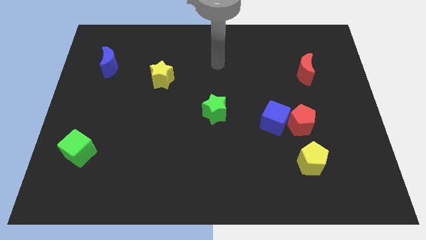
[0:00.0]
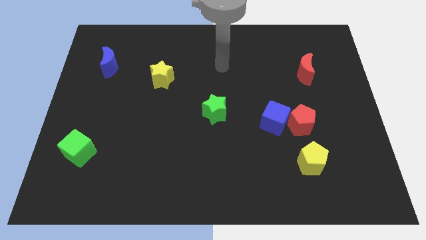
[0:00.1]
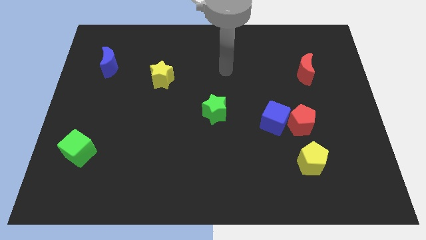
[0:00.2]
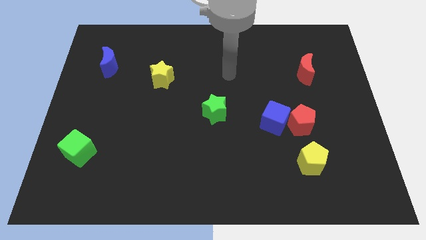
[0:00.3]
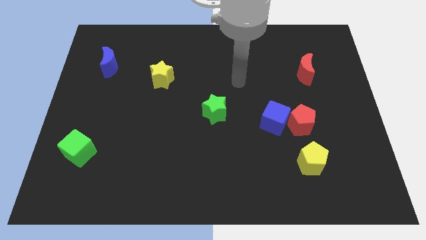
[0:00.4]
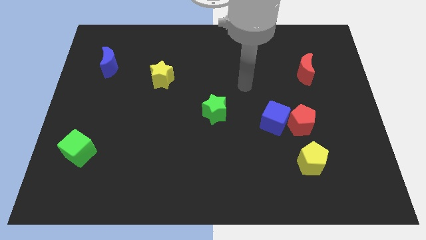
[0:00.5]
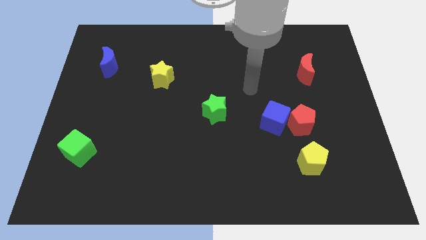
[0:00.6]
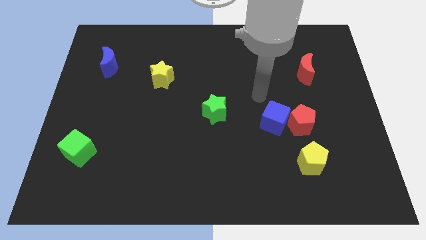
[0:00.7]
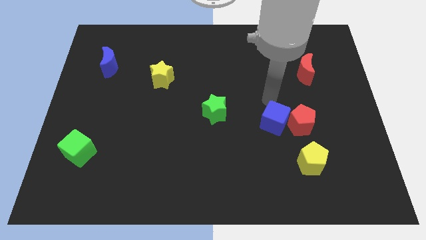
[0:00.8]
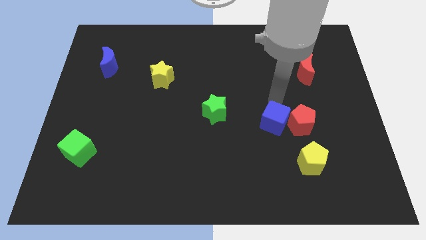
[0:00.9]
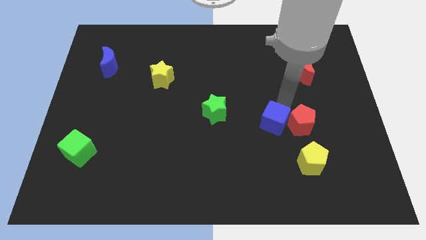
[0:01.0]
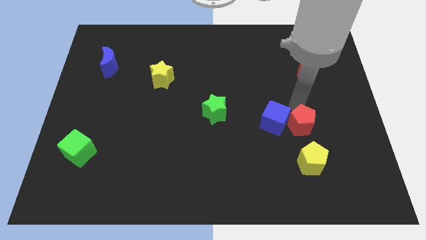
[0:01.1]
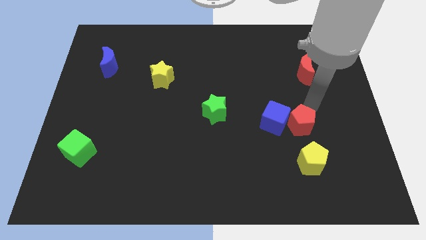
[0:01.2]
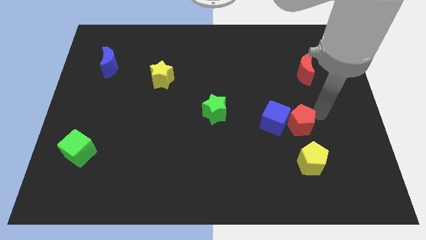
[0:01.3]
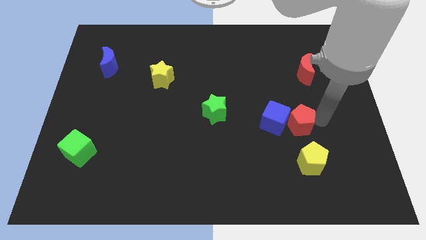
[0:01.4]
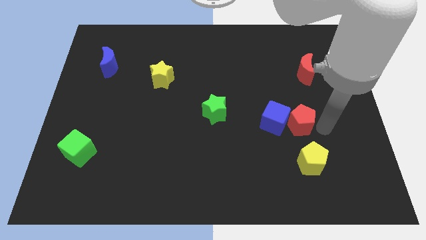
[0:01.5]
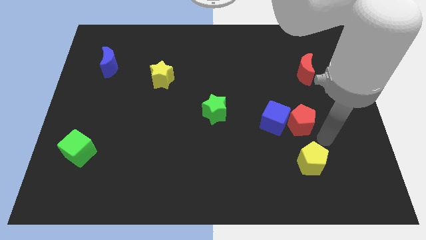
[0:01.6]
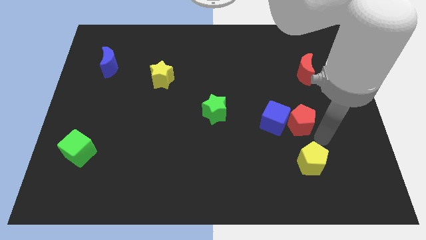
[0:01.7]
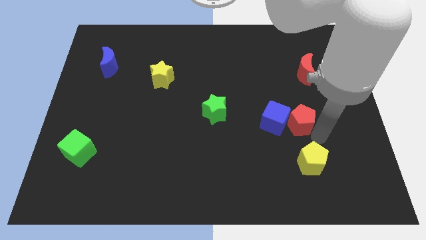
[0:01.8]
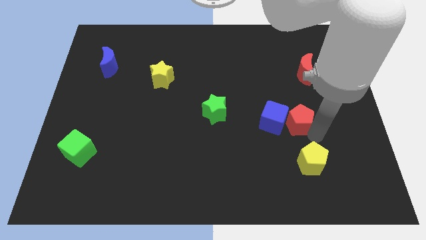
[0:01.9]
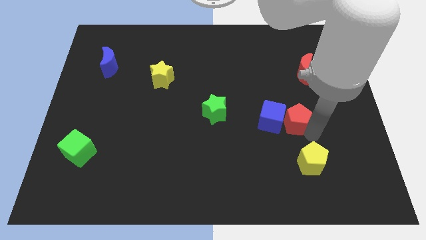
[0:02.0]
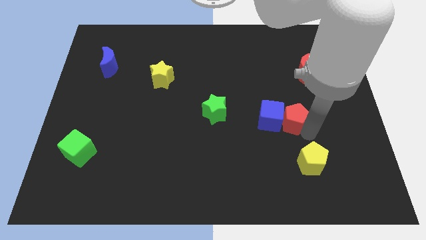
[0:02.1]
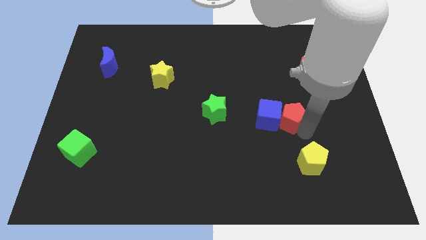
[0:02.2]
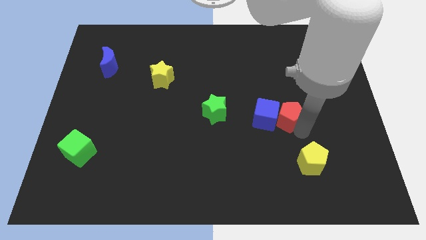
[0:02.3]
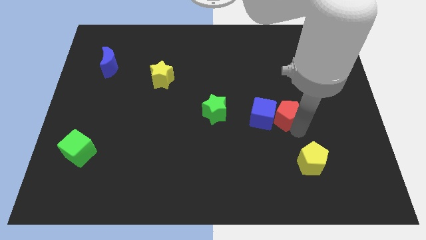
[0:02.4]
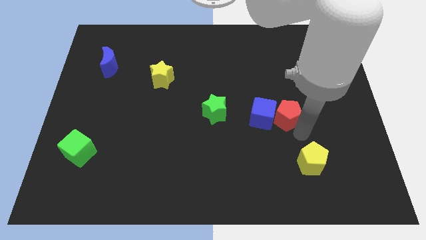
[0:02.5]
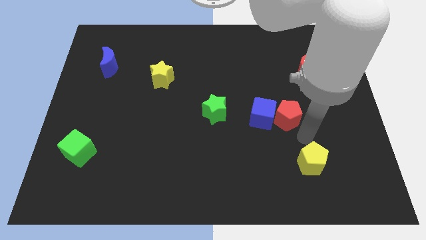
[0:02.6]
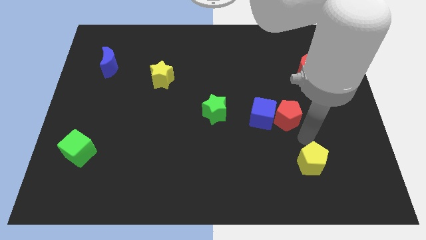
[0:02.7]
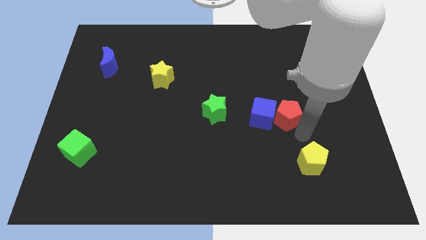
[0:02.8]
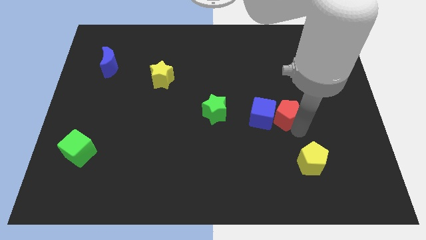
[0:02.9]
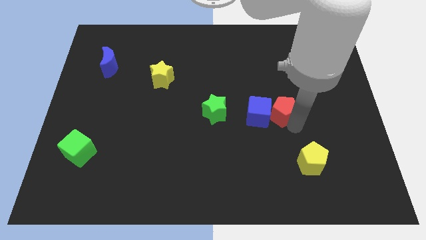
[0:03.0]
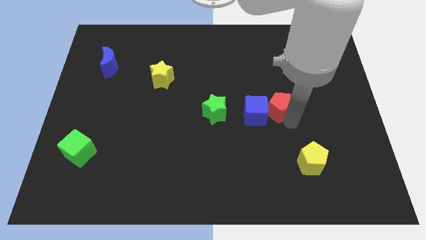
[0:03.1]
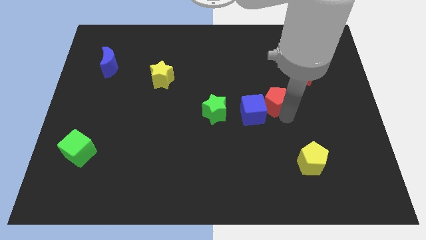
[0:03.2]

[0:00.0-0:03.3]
push the red pentagon a bit upwards and to the left diagonally

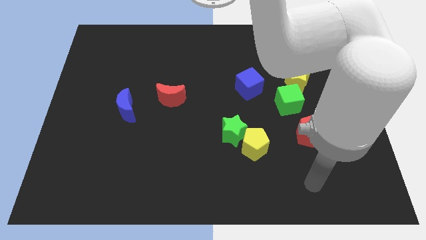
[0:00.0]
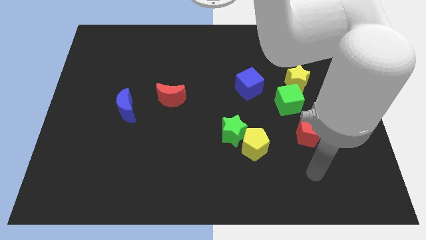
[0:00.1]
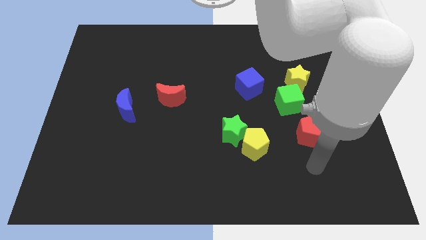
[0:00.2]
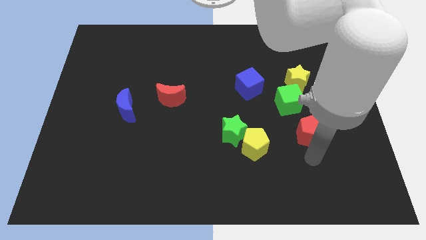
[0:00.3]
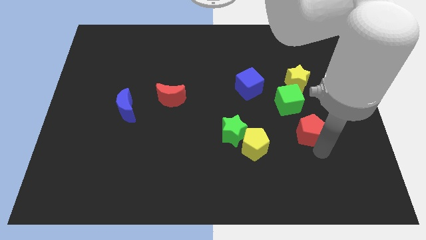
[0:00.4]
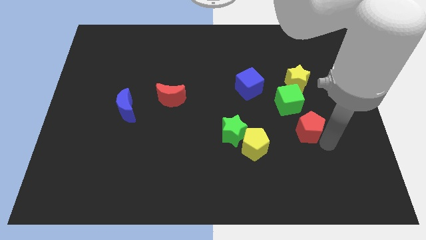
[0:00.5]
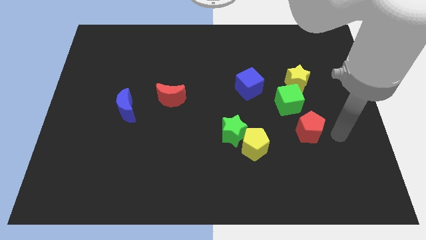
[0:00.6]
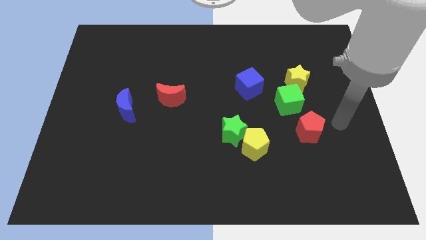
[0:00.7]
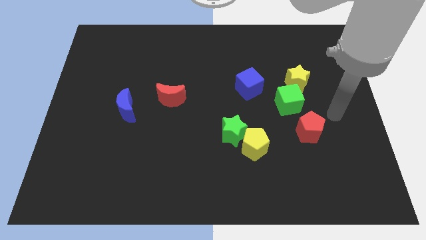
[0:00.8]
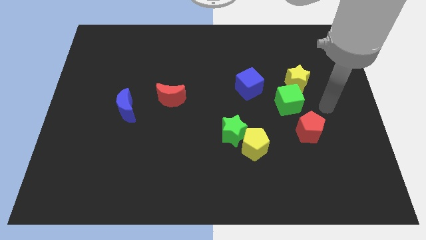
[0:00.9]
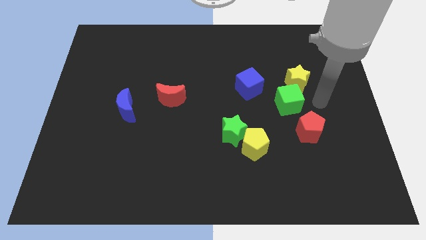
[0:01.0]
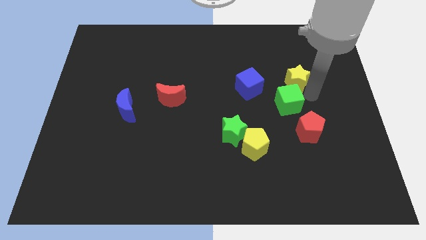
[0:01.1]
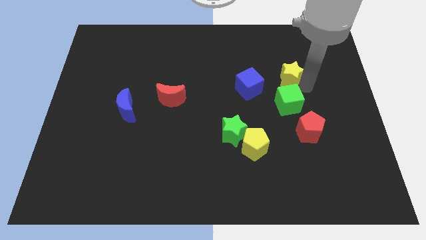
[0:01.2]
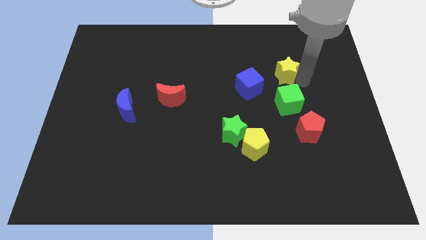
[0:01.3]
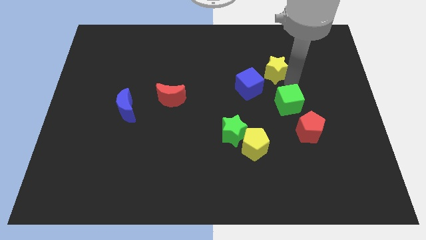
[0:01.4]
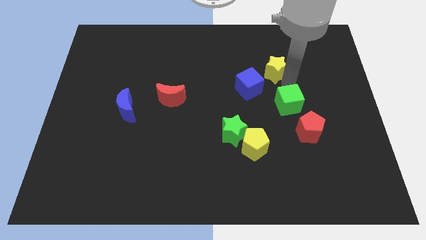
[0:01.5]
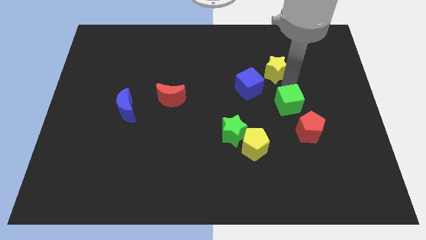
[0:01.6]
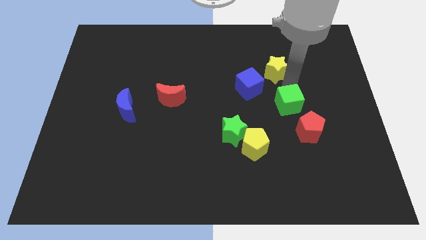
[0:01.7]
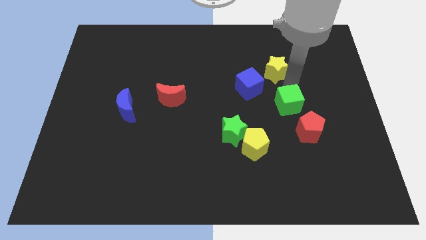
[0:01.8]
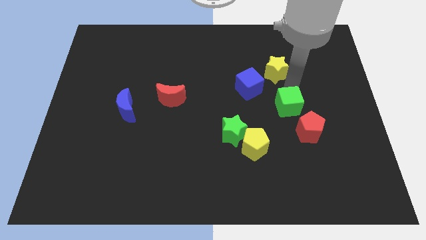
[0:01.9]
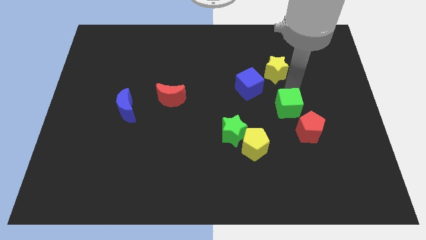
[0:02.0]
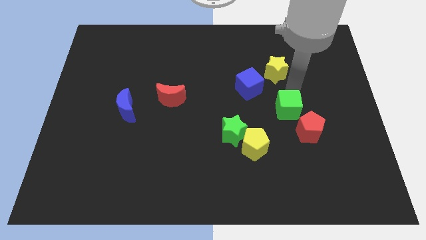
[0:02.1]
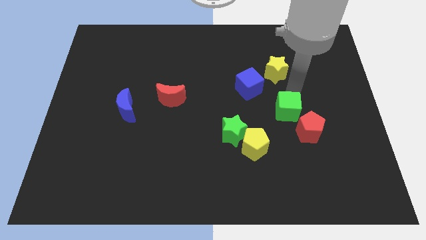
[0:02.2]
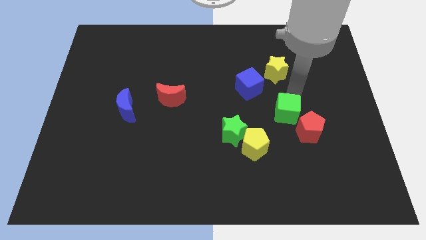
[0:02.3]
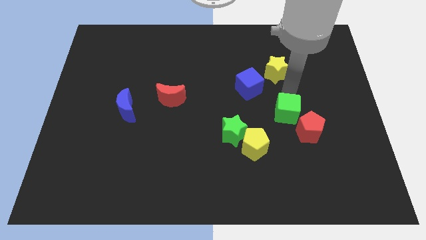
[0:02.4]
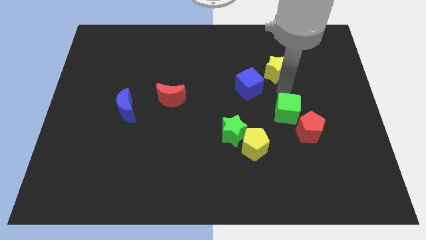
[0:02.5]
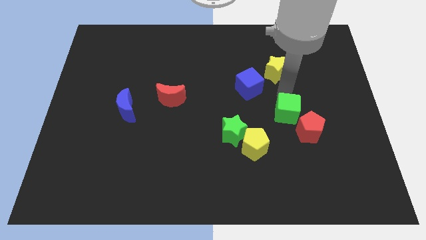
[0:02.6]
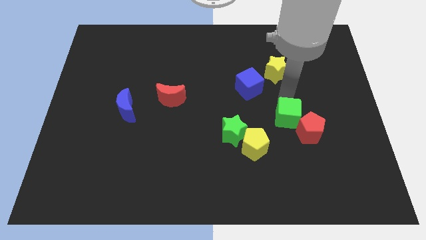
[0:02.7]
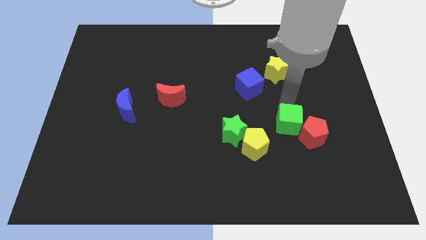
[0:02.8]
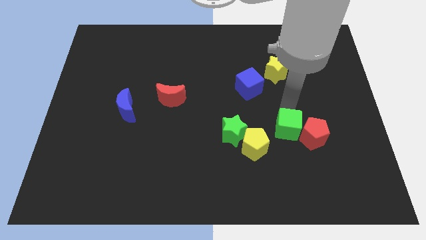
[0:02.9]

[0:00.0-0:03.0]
push the green cube downwards a little bit

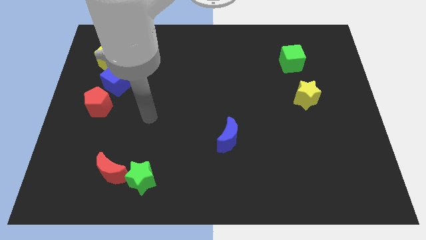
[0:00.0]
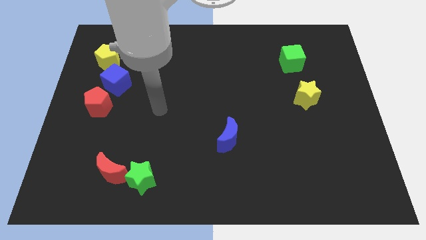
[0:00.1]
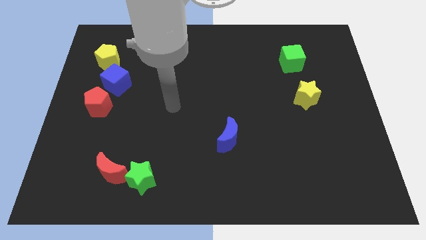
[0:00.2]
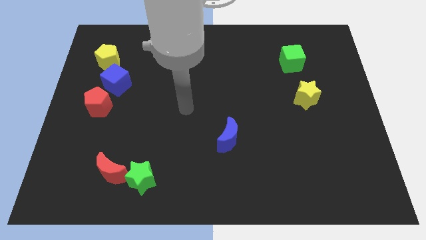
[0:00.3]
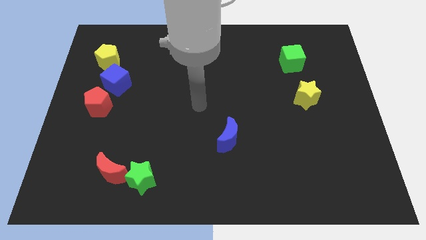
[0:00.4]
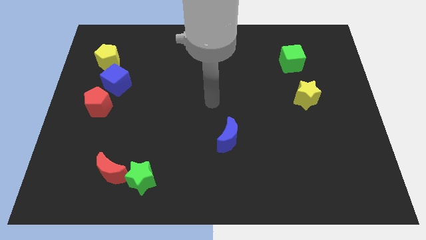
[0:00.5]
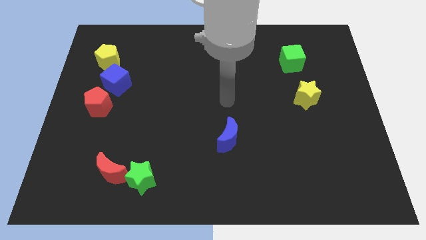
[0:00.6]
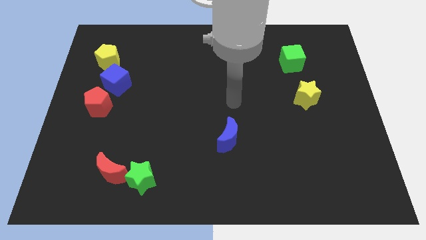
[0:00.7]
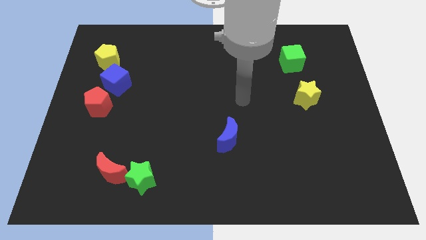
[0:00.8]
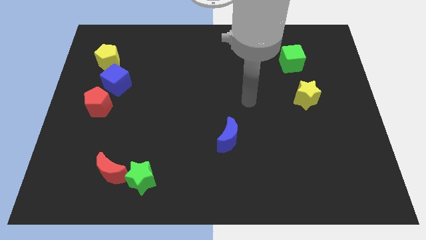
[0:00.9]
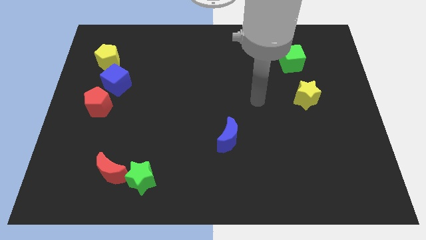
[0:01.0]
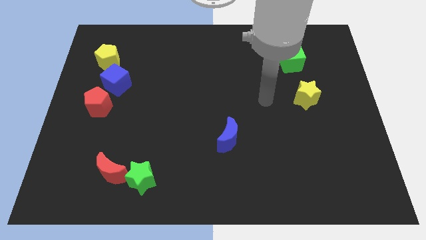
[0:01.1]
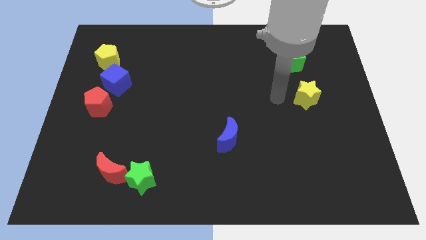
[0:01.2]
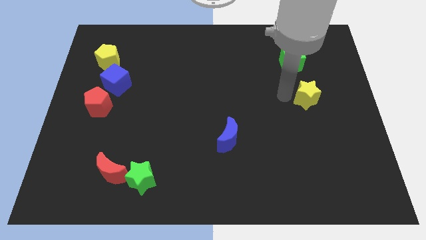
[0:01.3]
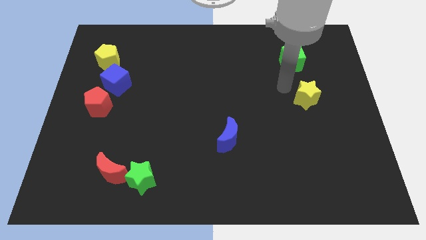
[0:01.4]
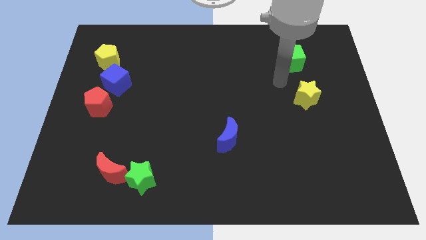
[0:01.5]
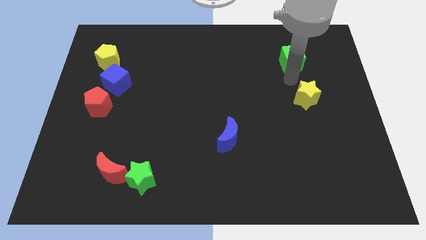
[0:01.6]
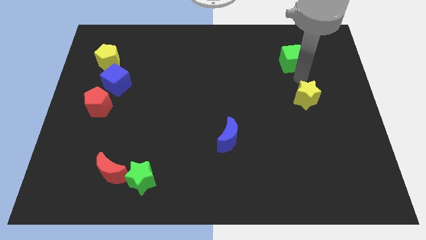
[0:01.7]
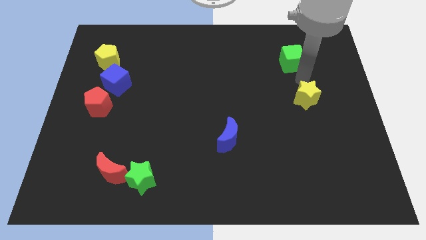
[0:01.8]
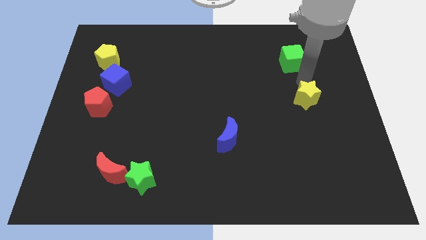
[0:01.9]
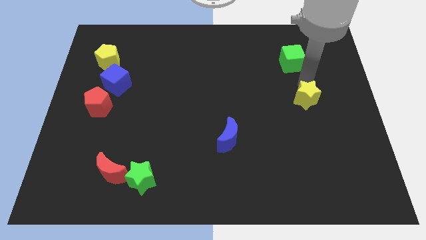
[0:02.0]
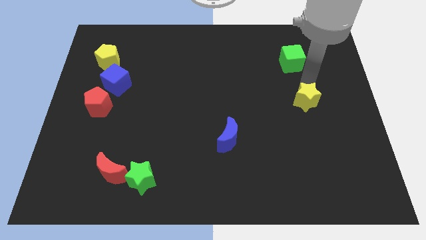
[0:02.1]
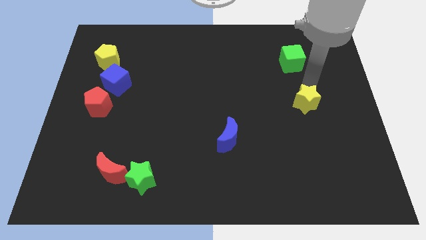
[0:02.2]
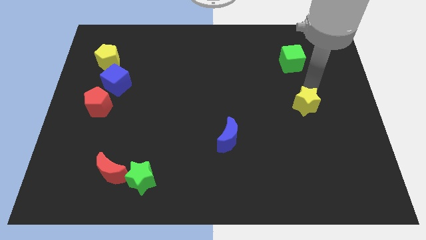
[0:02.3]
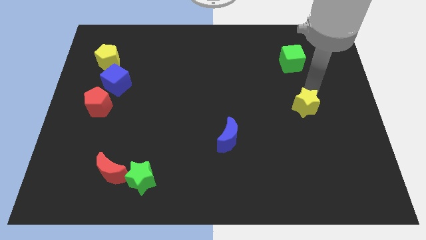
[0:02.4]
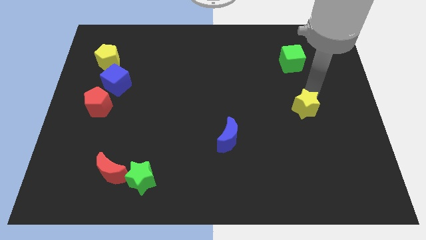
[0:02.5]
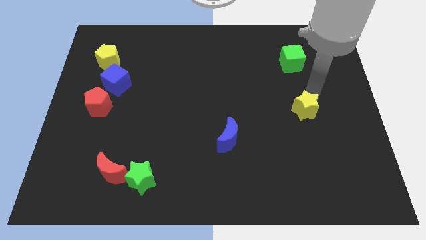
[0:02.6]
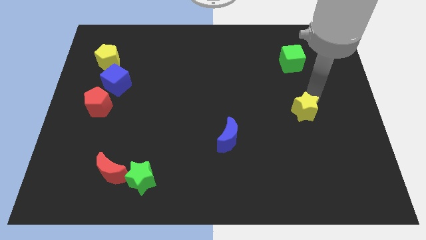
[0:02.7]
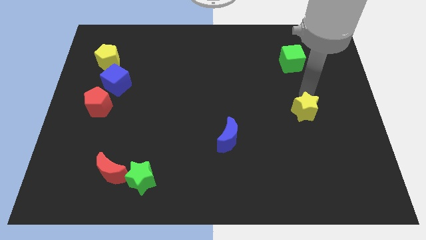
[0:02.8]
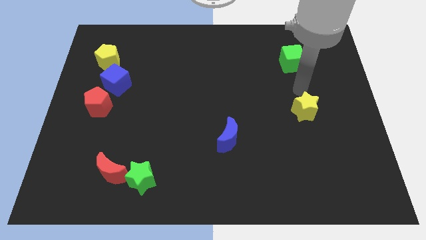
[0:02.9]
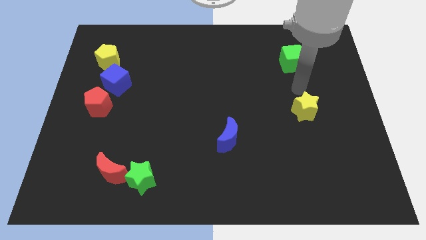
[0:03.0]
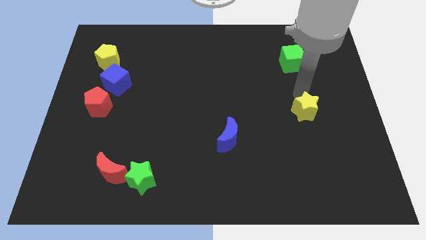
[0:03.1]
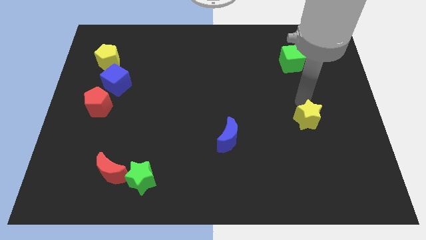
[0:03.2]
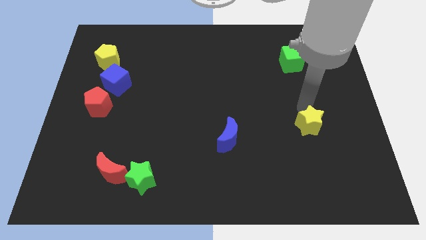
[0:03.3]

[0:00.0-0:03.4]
slightly slide the yellow star down
